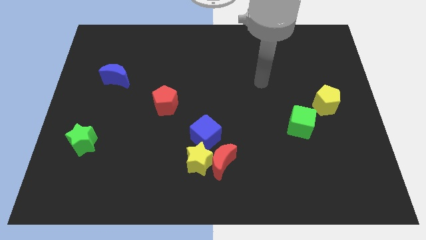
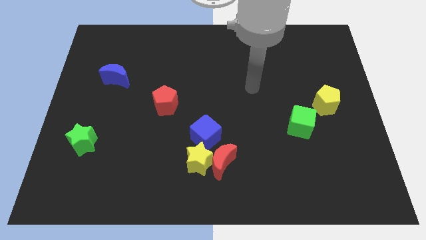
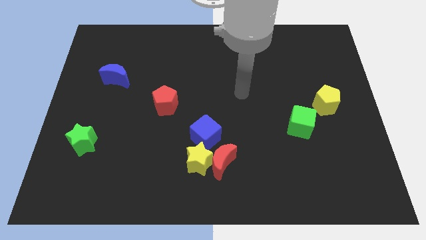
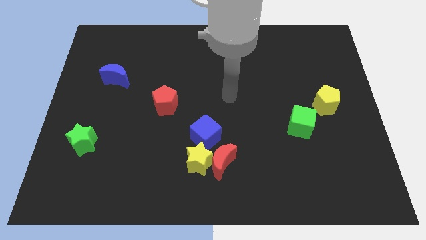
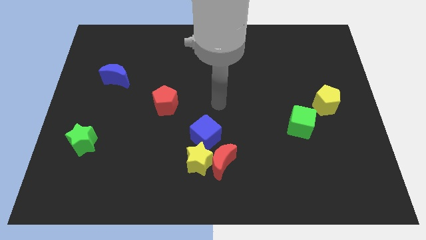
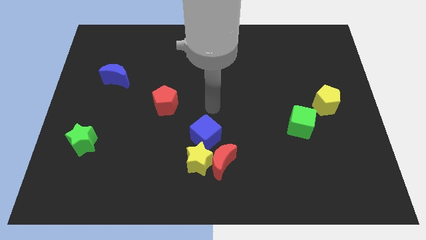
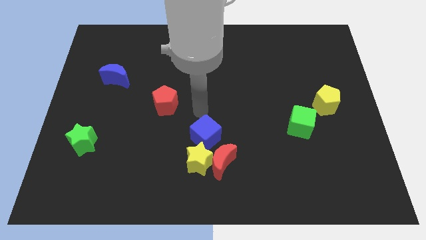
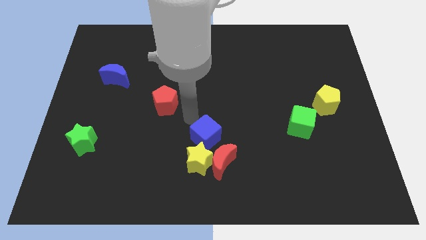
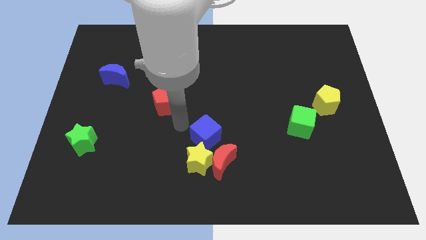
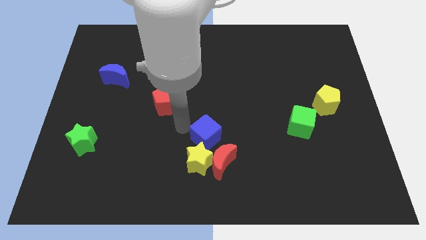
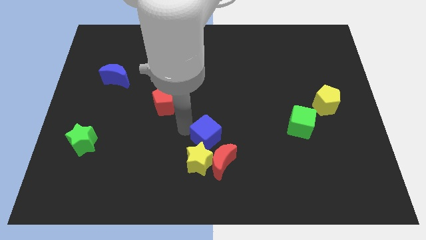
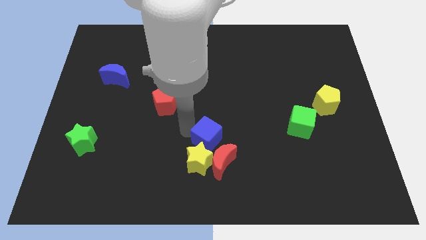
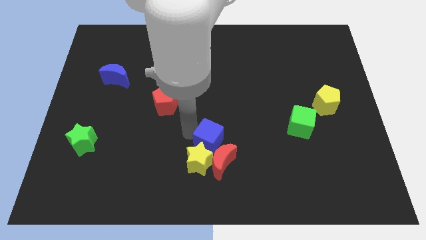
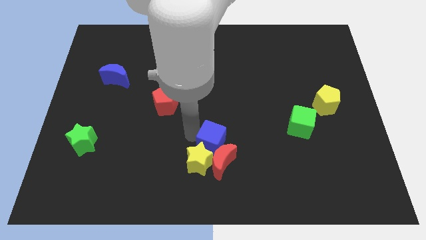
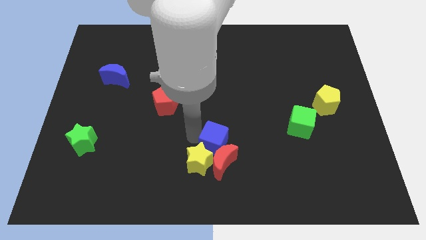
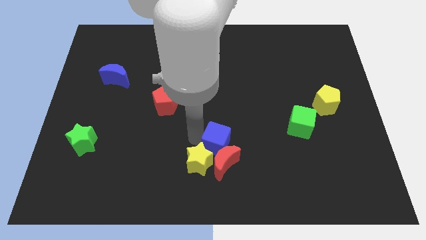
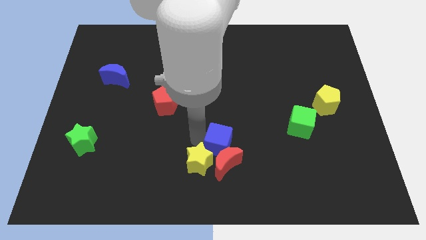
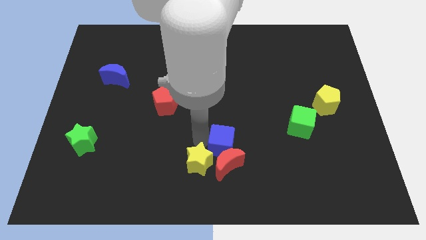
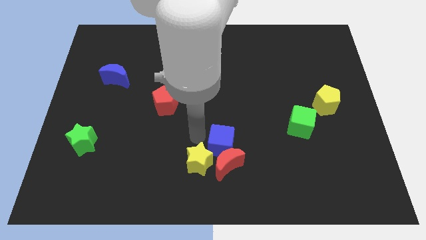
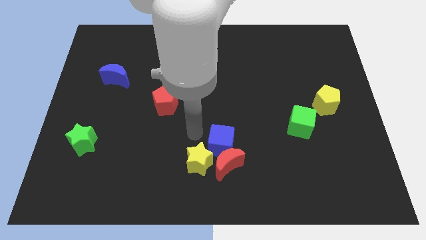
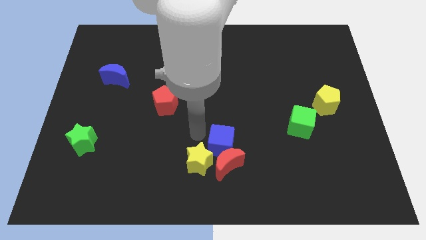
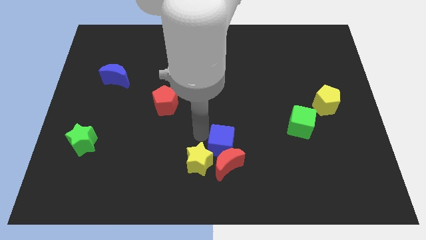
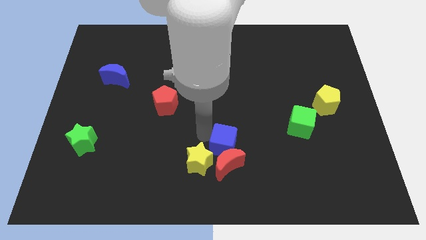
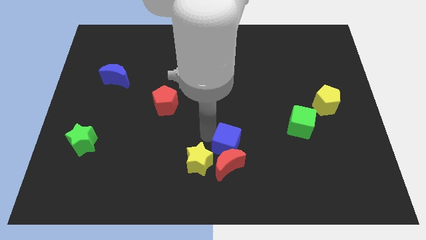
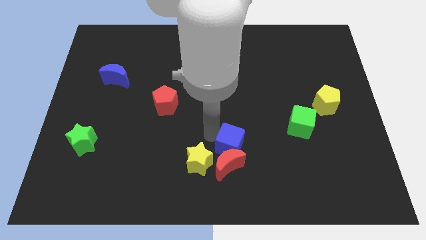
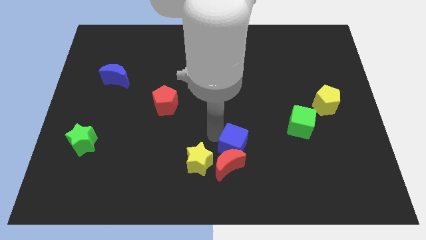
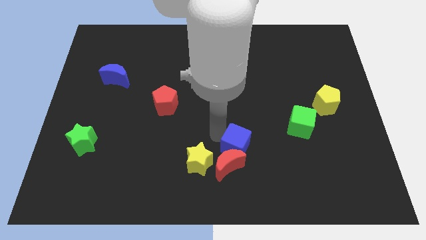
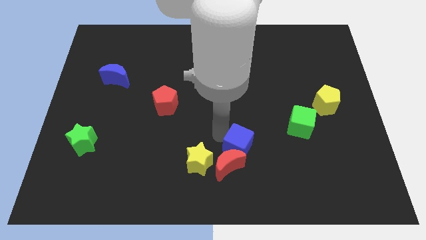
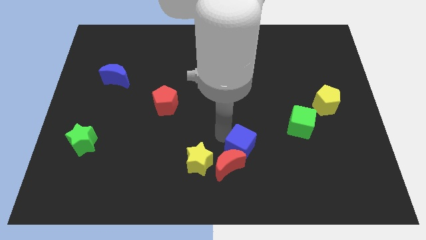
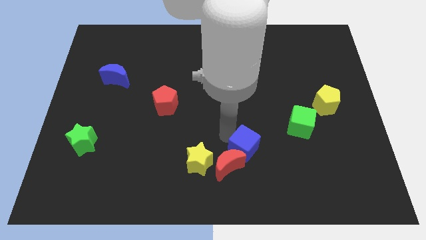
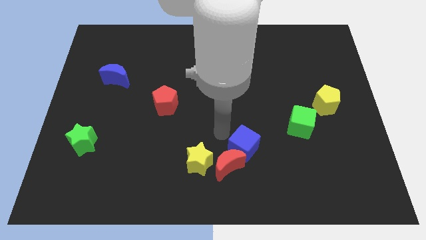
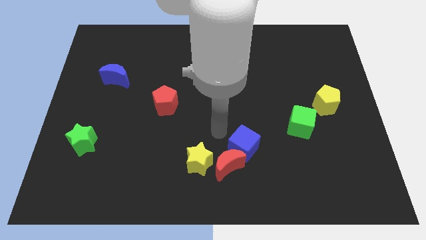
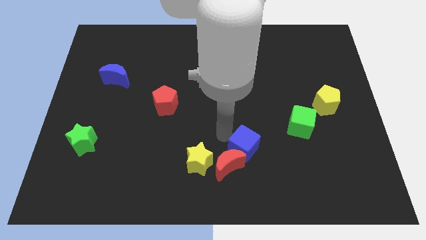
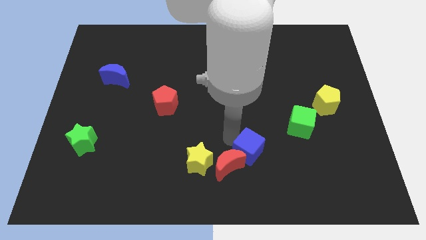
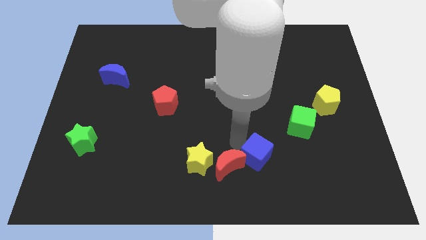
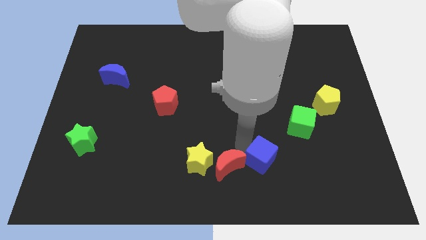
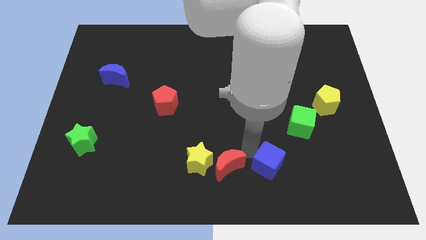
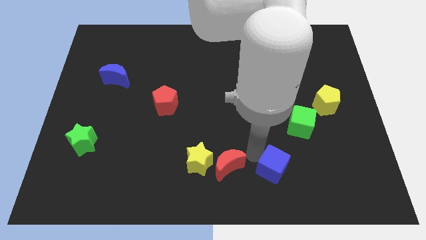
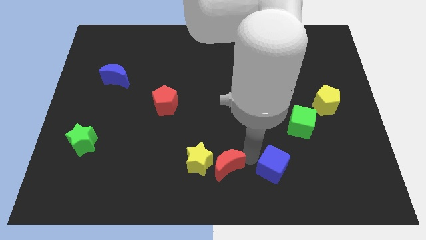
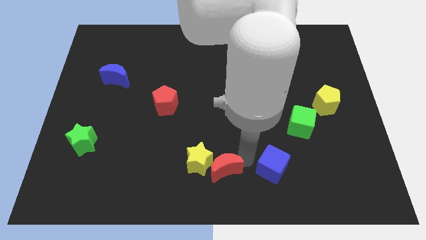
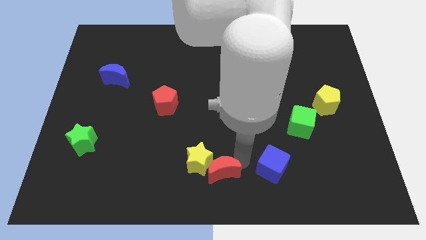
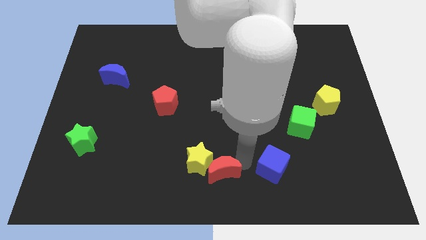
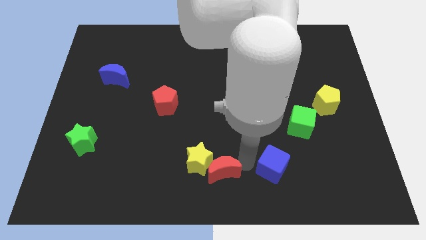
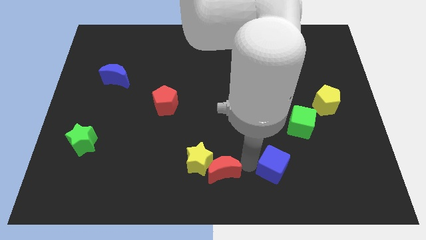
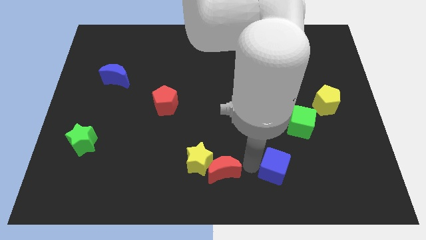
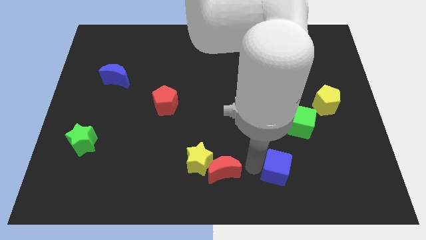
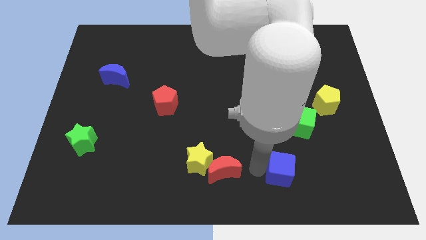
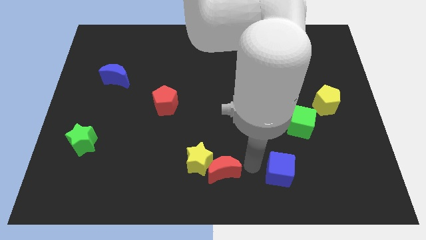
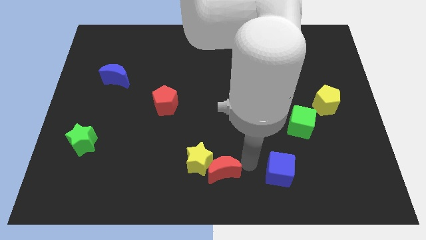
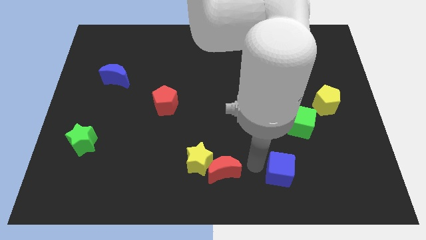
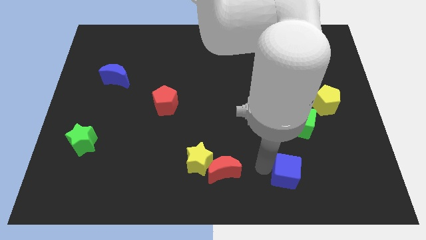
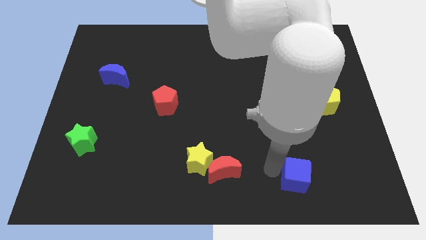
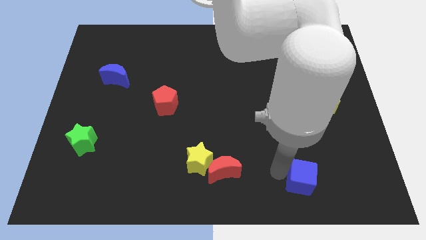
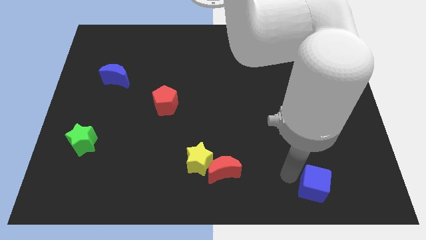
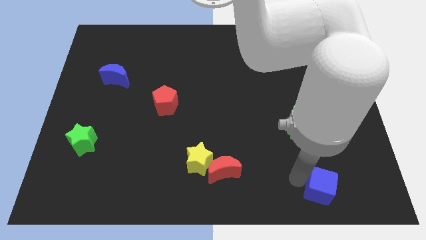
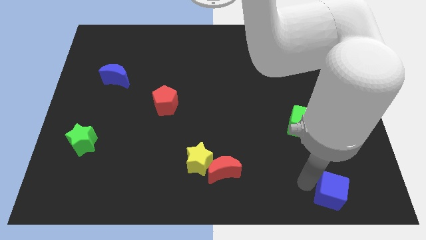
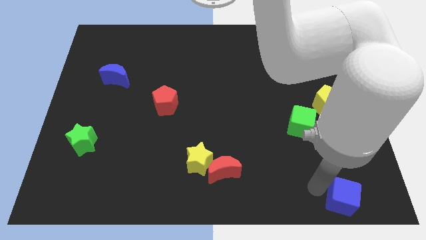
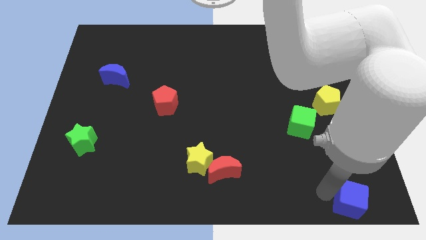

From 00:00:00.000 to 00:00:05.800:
slide the blue cube to the bottom right corner

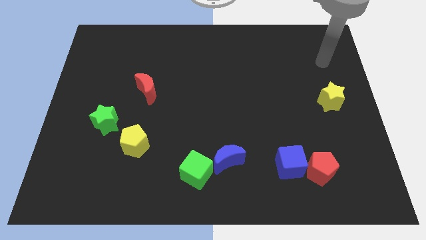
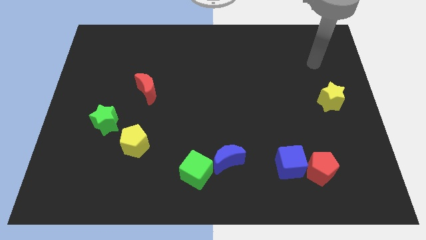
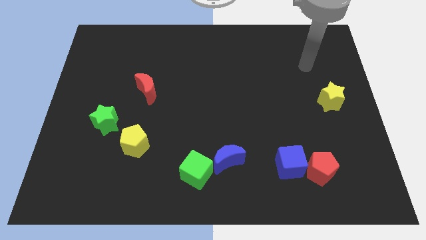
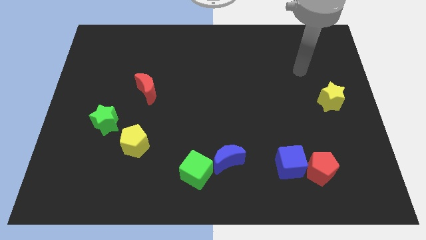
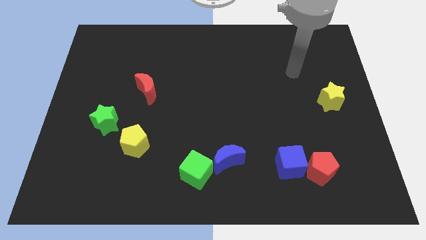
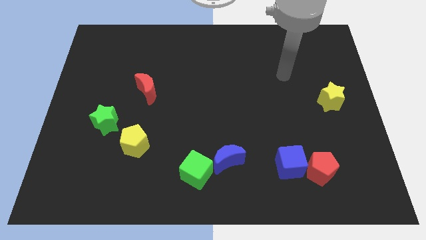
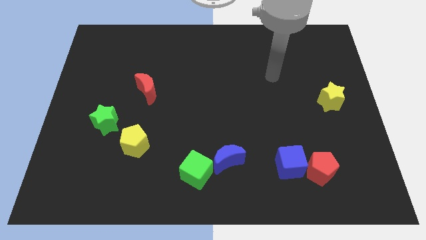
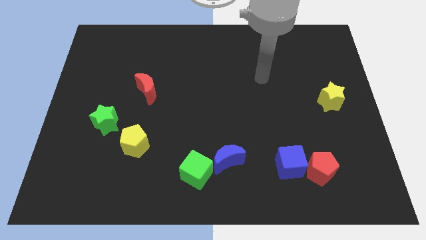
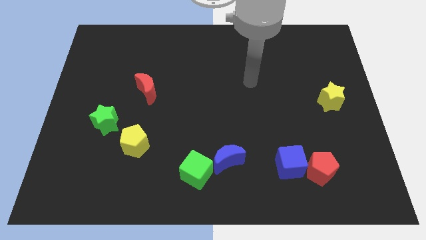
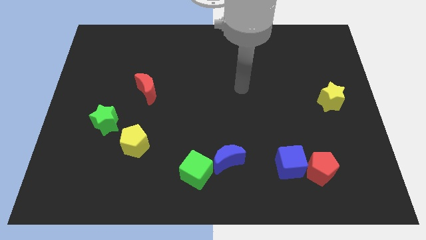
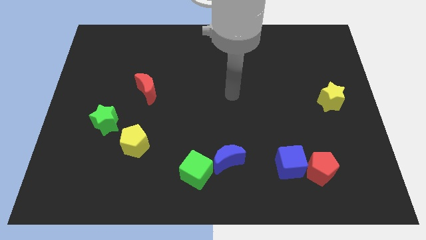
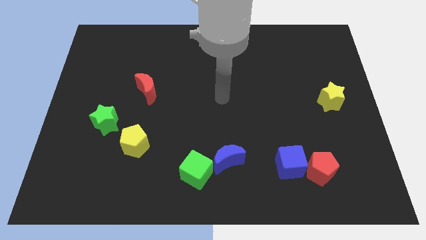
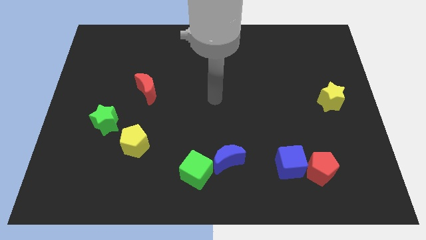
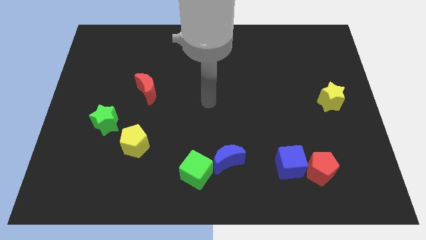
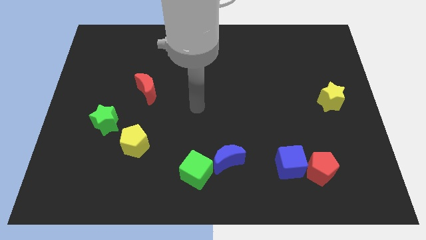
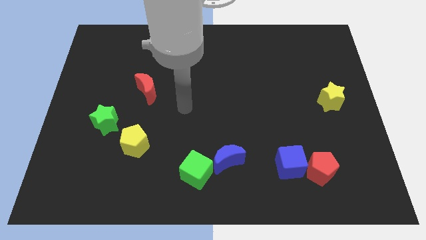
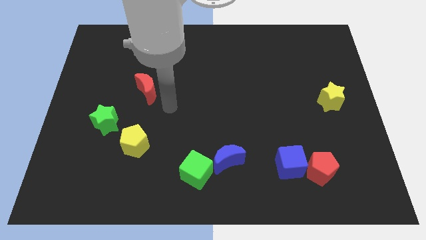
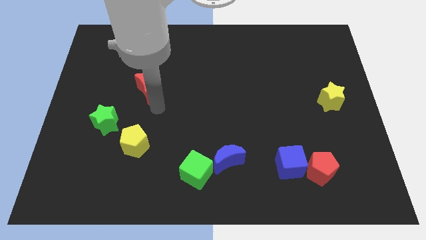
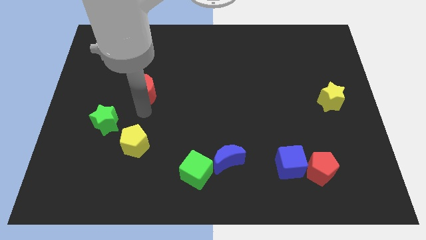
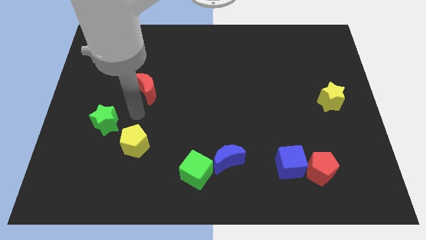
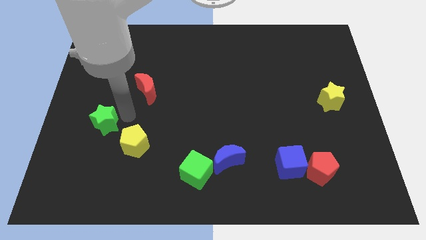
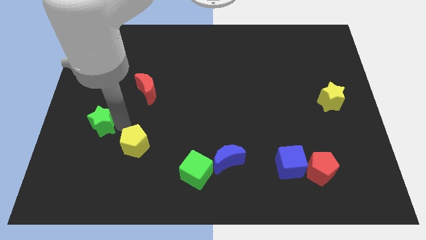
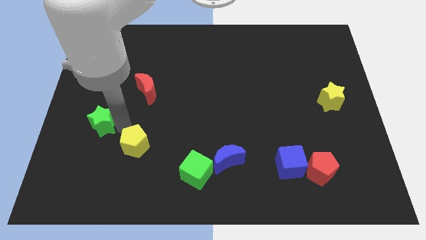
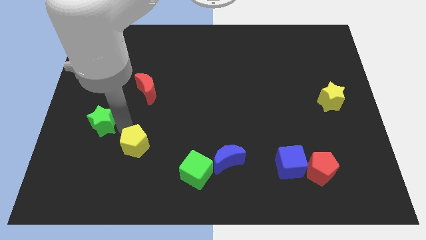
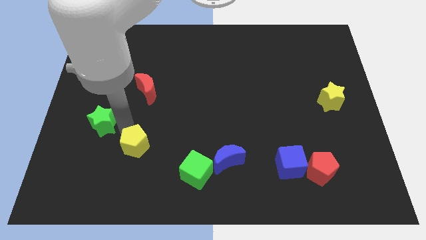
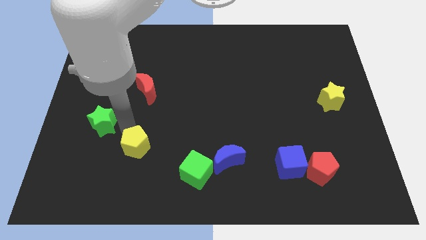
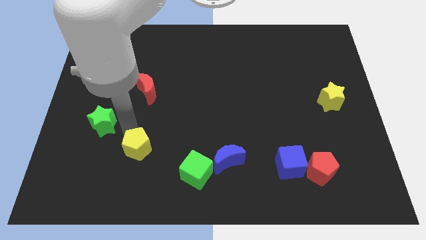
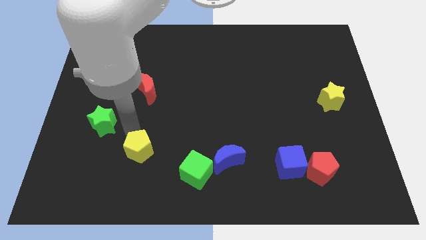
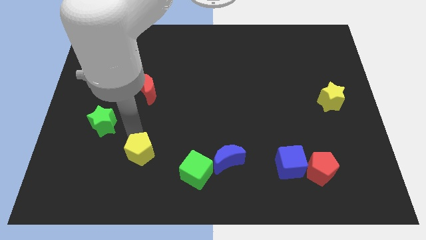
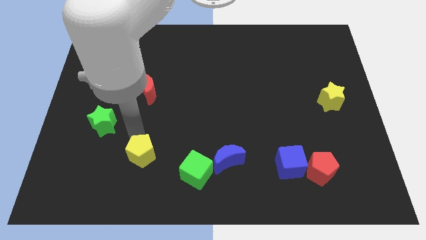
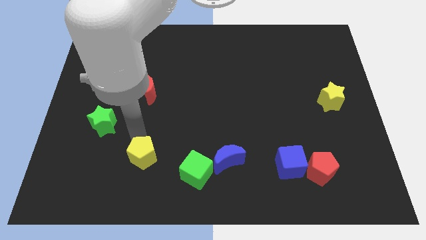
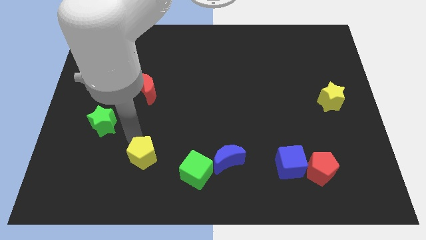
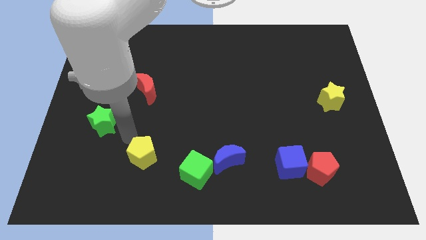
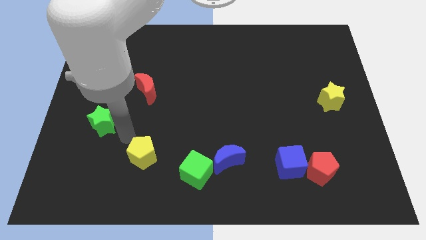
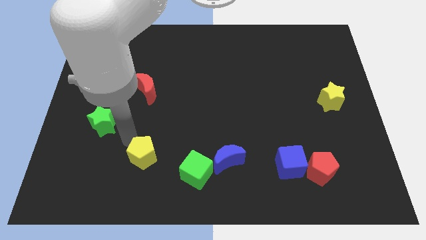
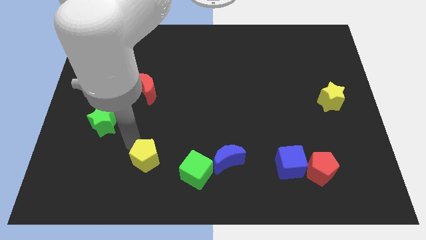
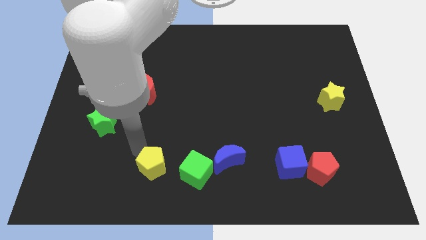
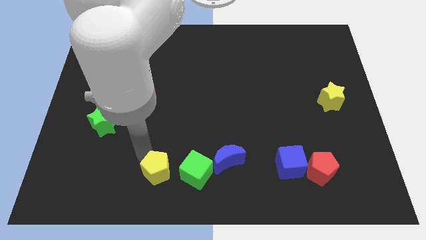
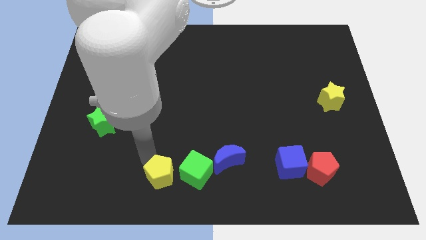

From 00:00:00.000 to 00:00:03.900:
move the yellow pentagon to the bottom
